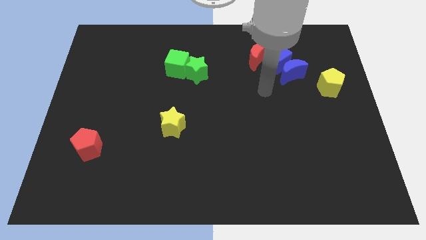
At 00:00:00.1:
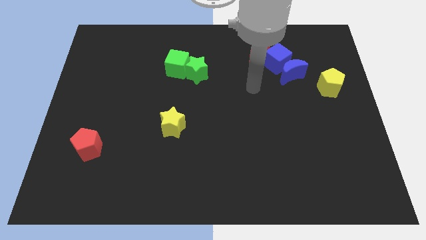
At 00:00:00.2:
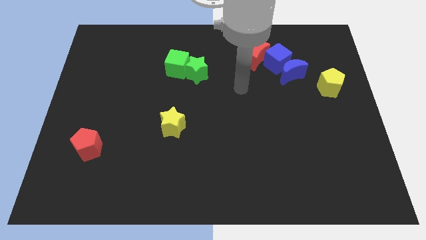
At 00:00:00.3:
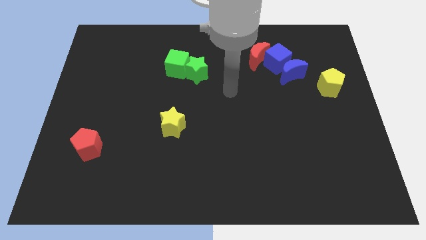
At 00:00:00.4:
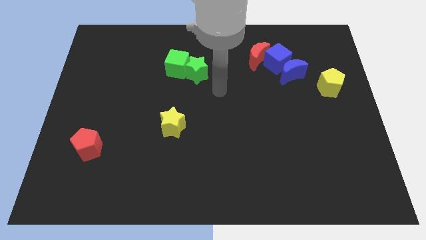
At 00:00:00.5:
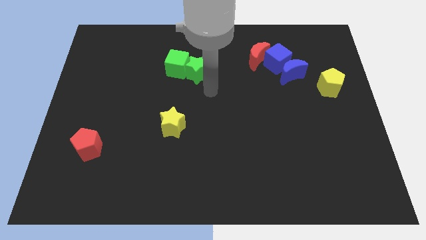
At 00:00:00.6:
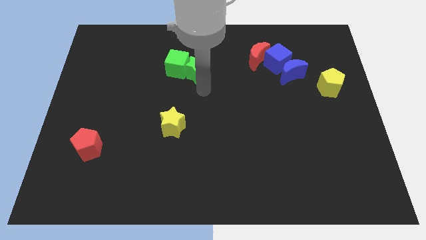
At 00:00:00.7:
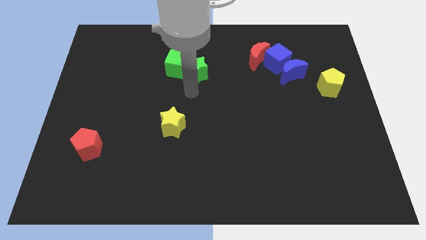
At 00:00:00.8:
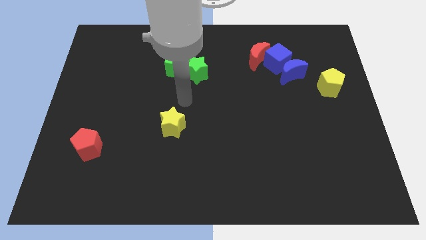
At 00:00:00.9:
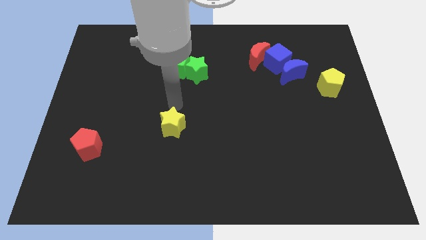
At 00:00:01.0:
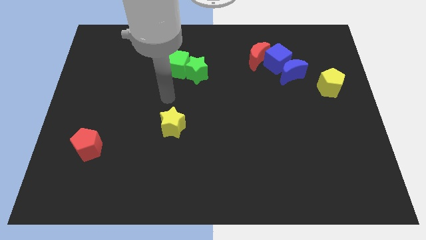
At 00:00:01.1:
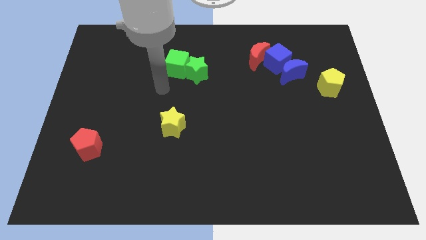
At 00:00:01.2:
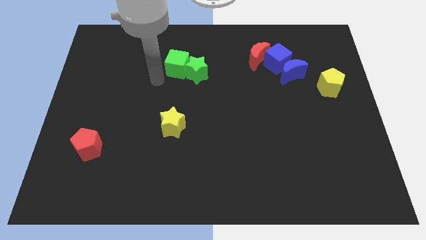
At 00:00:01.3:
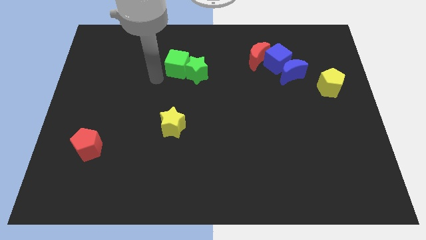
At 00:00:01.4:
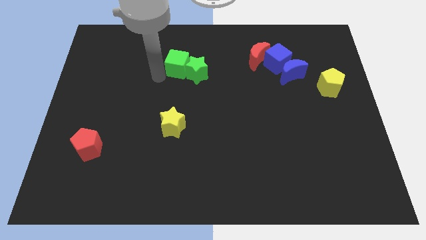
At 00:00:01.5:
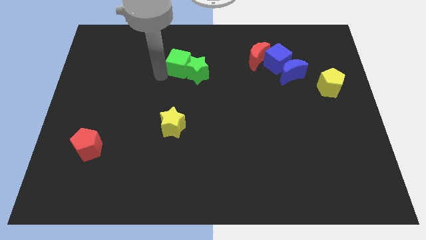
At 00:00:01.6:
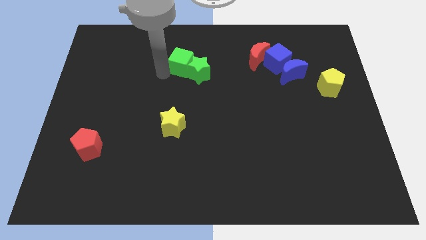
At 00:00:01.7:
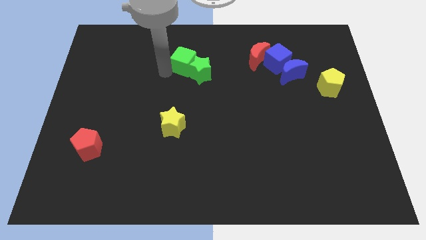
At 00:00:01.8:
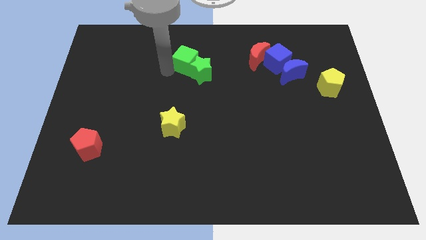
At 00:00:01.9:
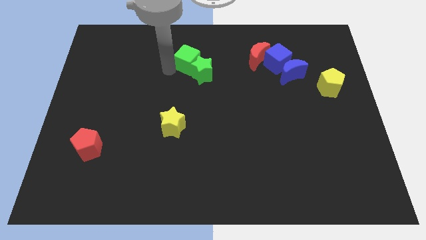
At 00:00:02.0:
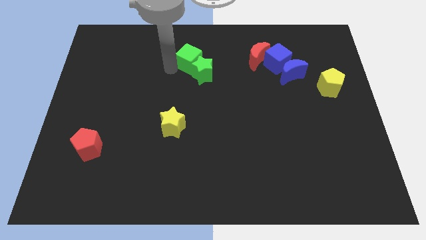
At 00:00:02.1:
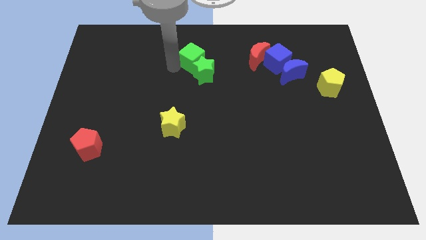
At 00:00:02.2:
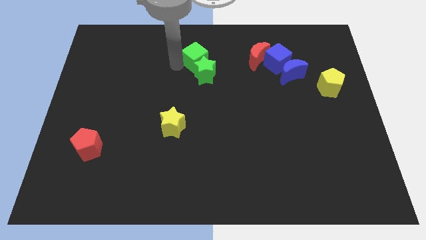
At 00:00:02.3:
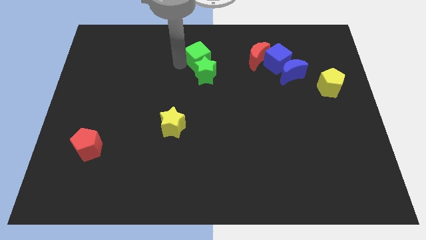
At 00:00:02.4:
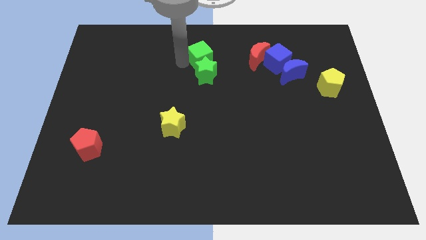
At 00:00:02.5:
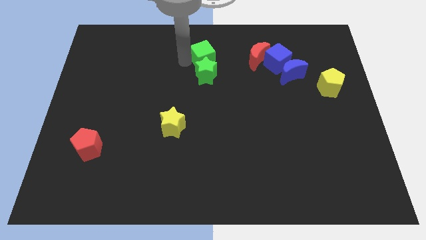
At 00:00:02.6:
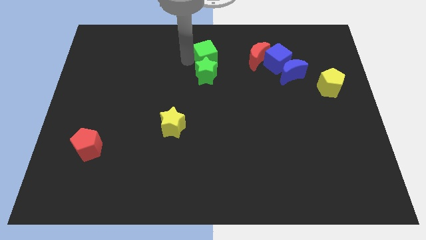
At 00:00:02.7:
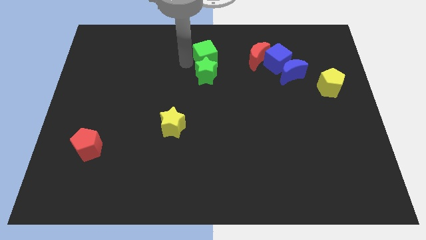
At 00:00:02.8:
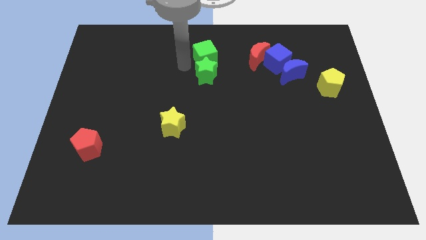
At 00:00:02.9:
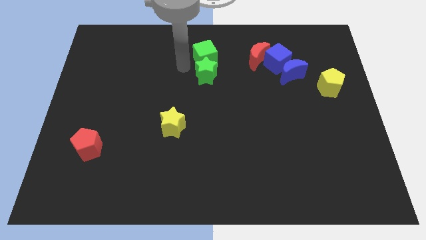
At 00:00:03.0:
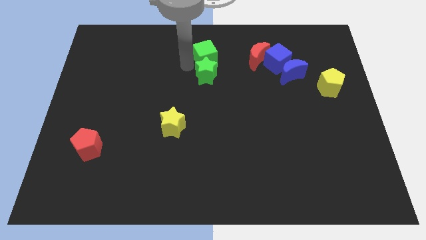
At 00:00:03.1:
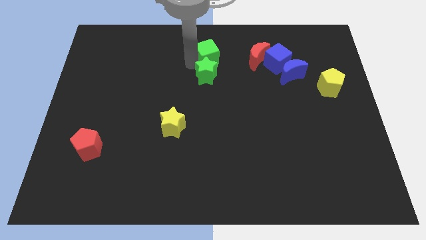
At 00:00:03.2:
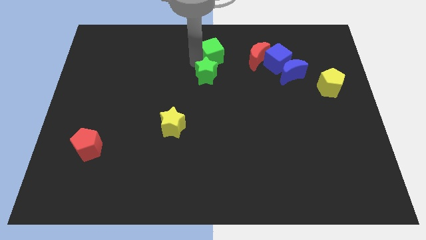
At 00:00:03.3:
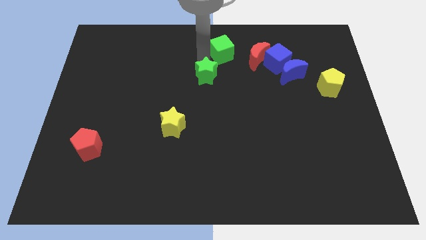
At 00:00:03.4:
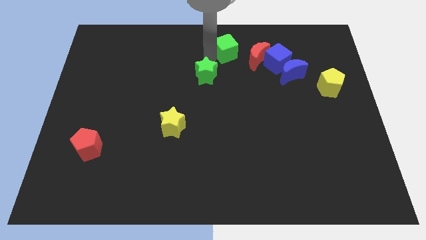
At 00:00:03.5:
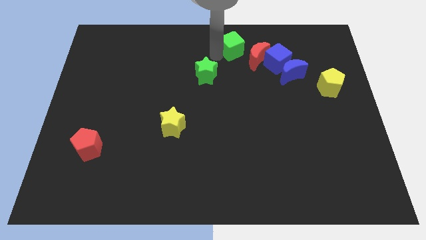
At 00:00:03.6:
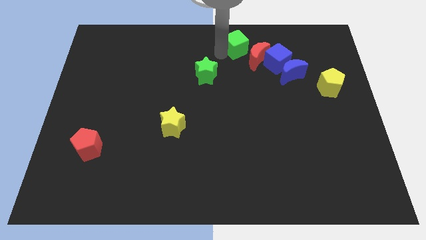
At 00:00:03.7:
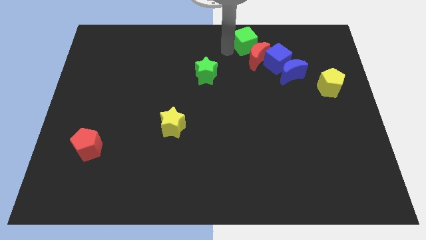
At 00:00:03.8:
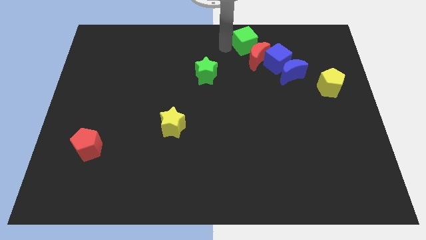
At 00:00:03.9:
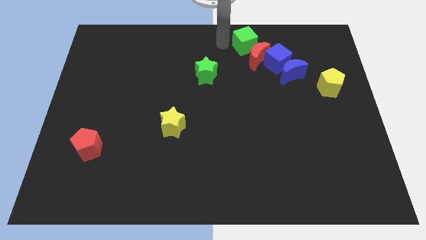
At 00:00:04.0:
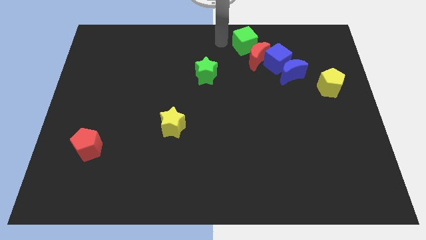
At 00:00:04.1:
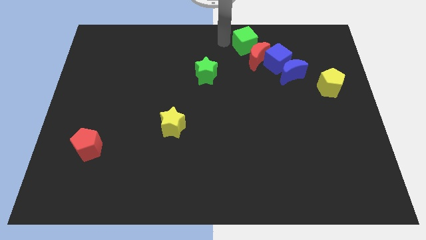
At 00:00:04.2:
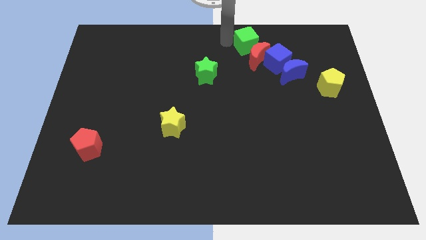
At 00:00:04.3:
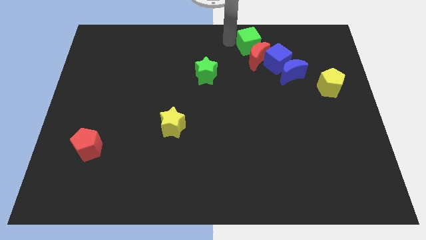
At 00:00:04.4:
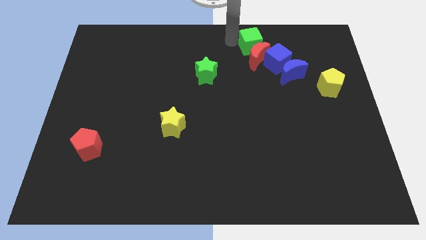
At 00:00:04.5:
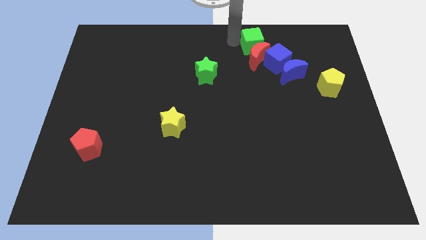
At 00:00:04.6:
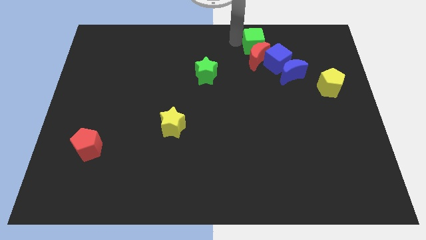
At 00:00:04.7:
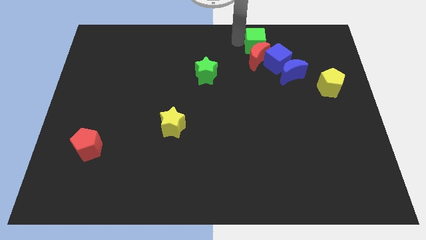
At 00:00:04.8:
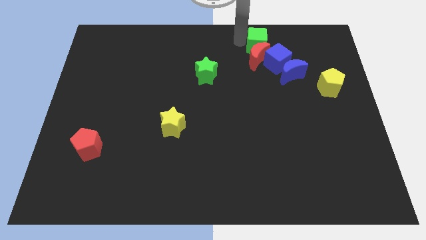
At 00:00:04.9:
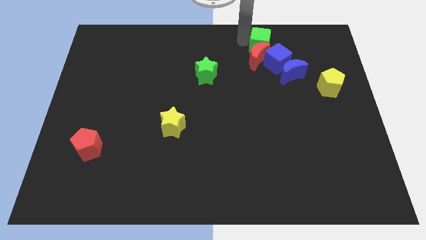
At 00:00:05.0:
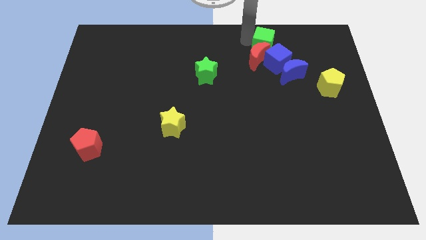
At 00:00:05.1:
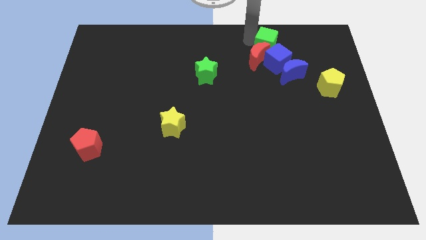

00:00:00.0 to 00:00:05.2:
move the green cube right

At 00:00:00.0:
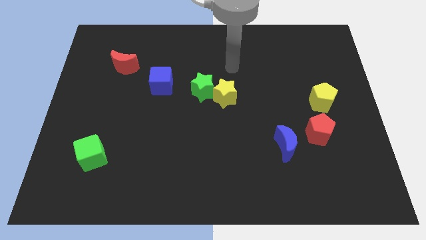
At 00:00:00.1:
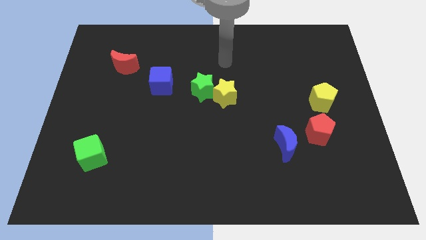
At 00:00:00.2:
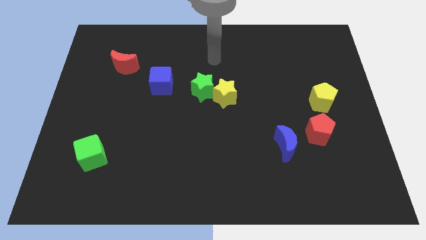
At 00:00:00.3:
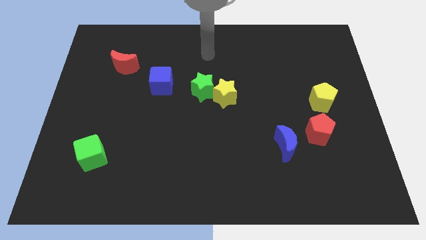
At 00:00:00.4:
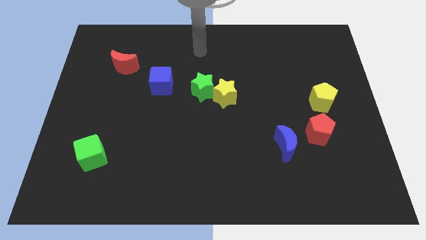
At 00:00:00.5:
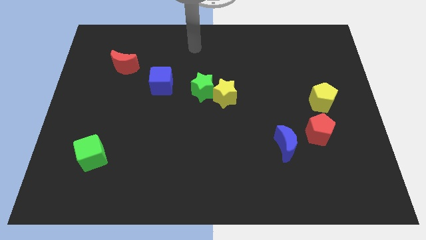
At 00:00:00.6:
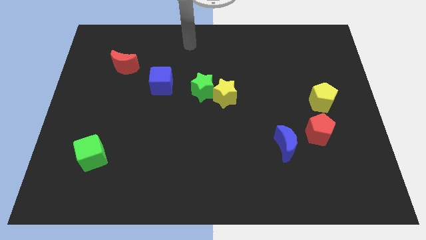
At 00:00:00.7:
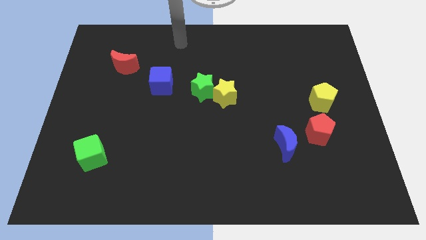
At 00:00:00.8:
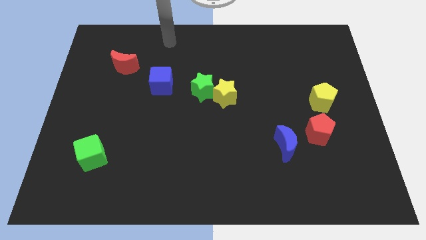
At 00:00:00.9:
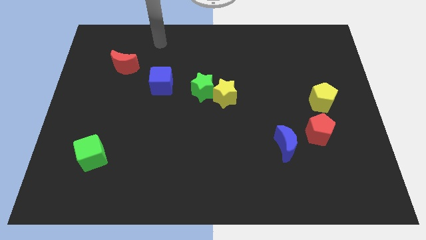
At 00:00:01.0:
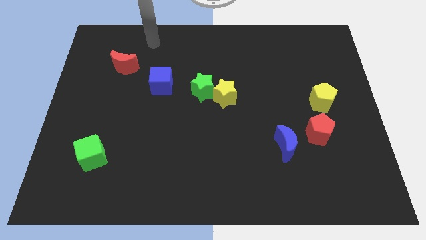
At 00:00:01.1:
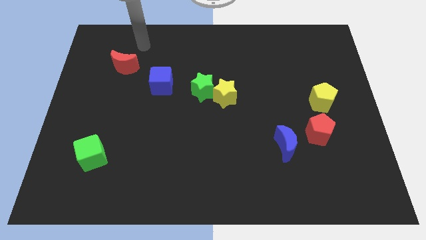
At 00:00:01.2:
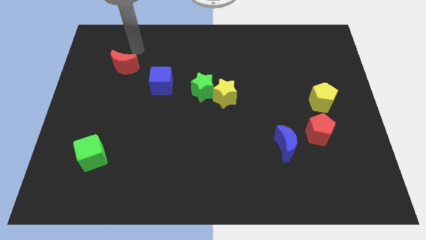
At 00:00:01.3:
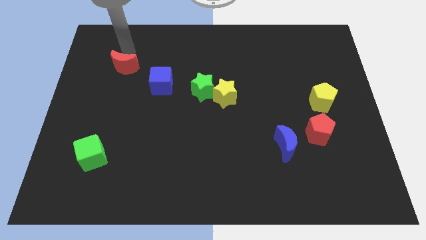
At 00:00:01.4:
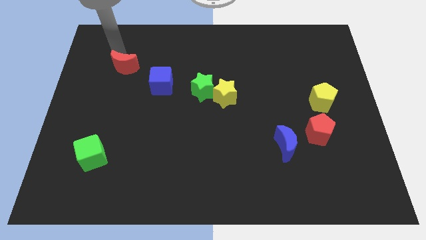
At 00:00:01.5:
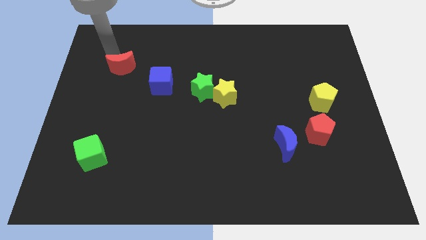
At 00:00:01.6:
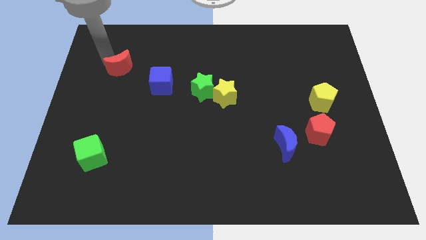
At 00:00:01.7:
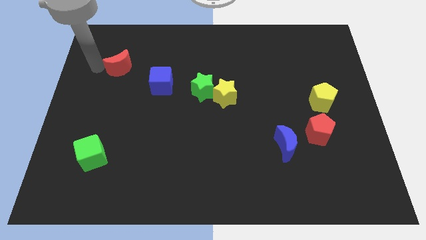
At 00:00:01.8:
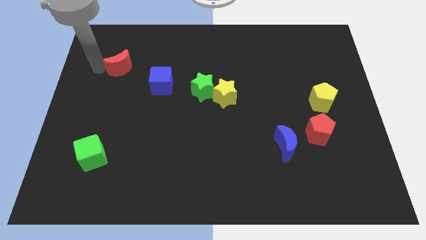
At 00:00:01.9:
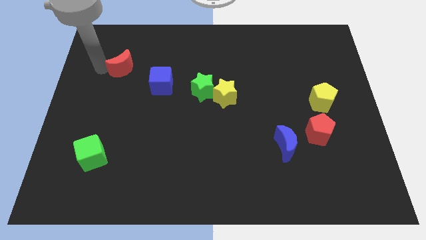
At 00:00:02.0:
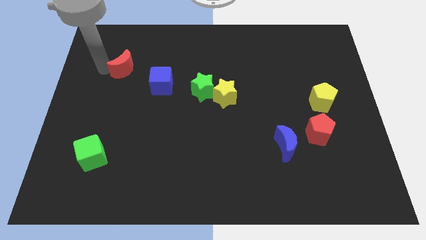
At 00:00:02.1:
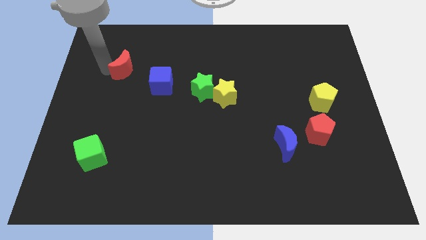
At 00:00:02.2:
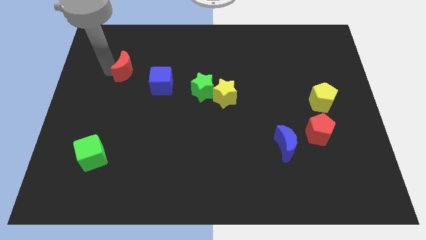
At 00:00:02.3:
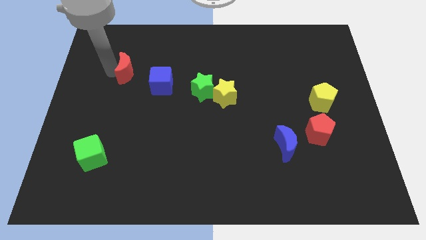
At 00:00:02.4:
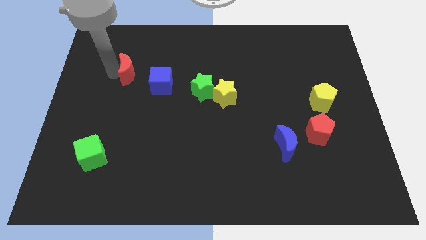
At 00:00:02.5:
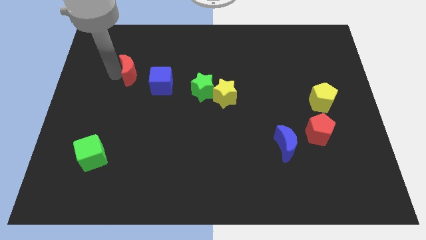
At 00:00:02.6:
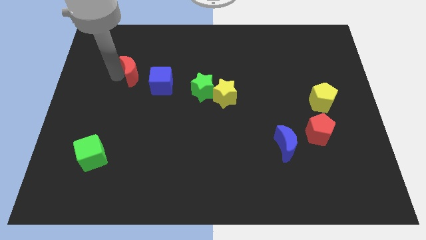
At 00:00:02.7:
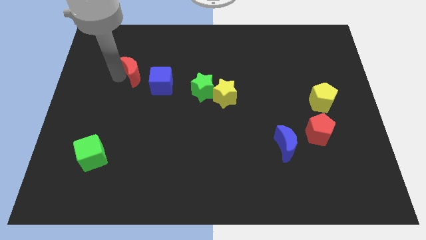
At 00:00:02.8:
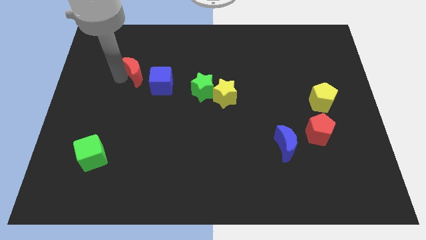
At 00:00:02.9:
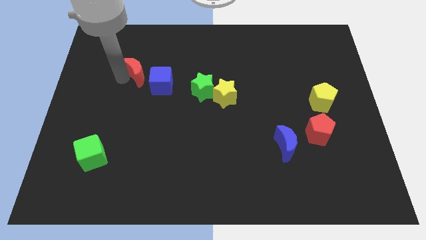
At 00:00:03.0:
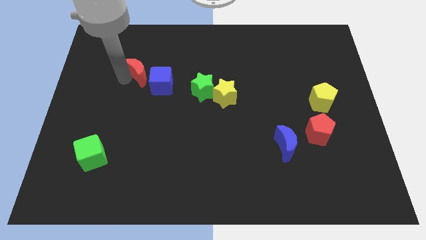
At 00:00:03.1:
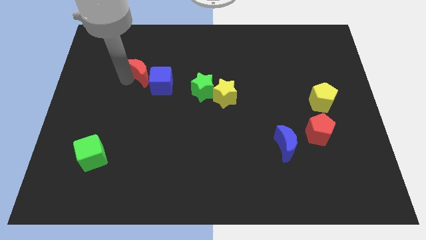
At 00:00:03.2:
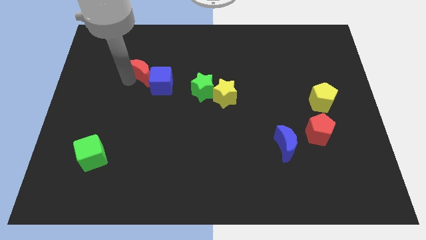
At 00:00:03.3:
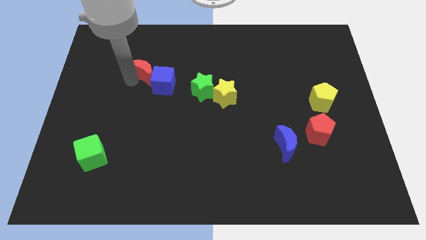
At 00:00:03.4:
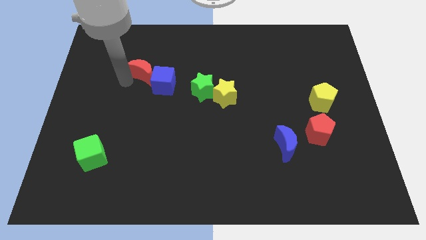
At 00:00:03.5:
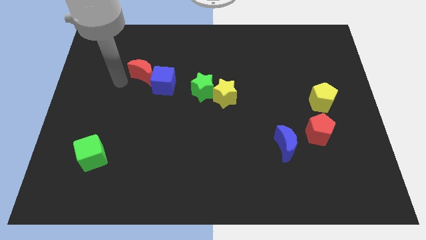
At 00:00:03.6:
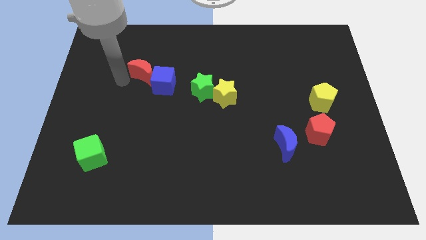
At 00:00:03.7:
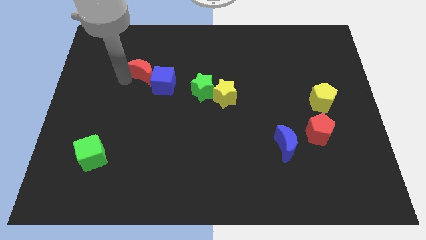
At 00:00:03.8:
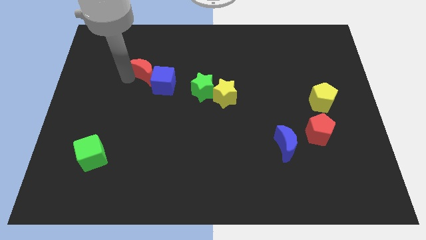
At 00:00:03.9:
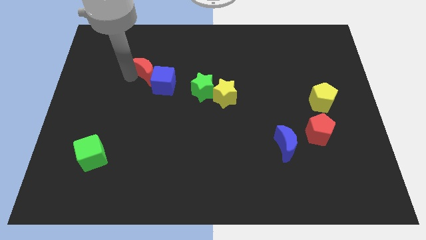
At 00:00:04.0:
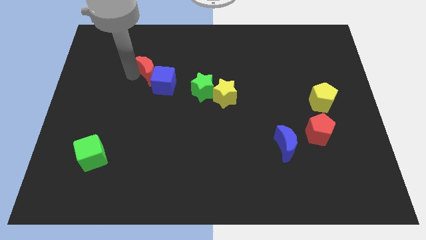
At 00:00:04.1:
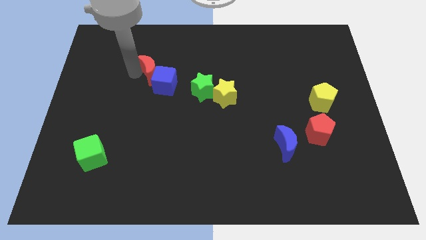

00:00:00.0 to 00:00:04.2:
move the red moon to the right slightly
